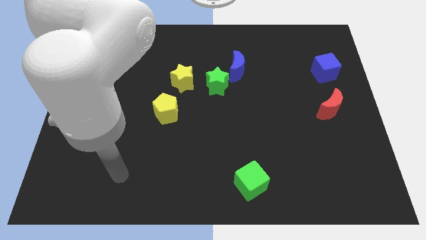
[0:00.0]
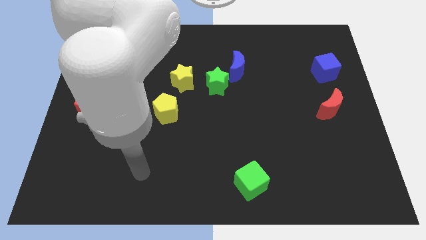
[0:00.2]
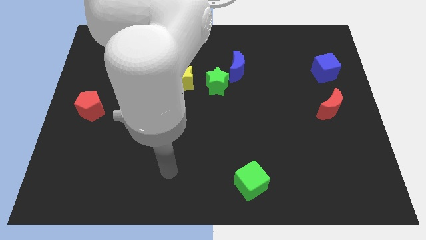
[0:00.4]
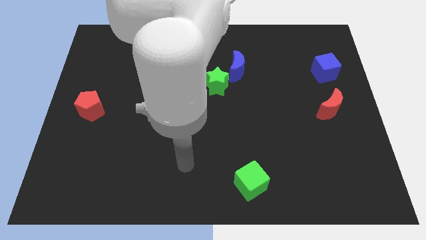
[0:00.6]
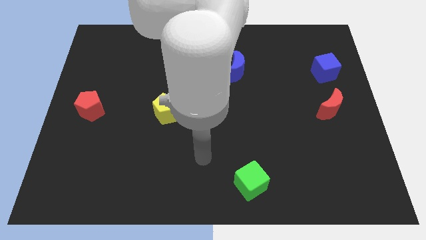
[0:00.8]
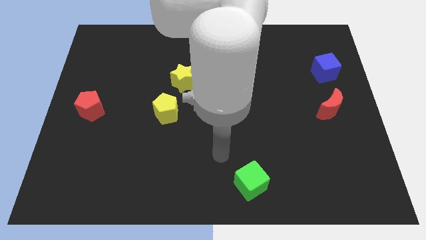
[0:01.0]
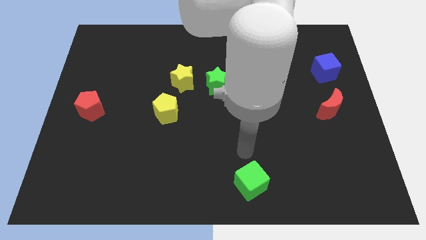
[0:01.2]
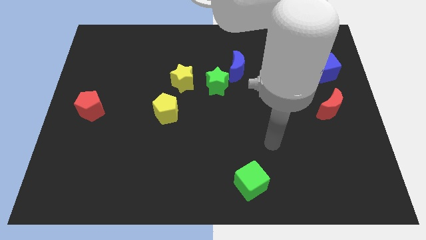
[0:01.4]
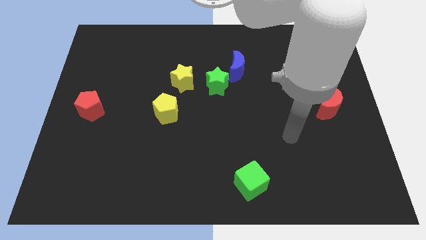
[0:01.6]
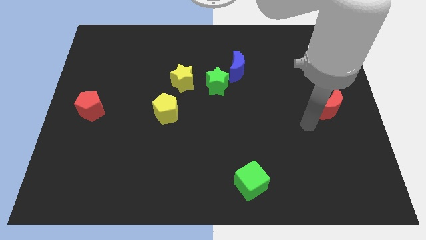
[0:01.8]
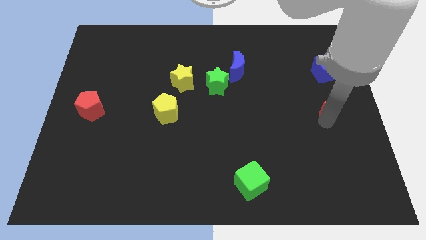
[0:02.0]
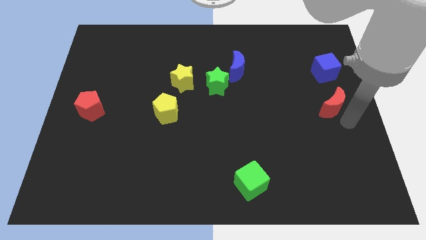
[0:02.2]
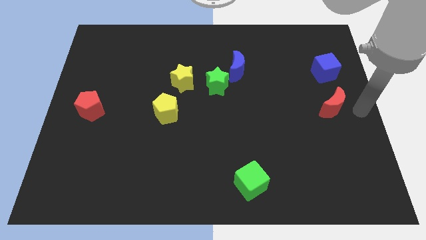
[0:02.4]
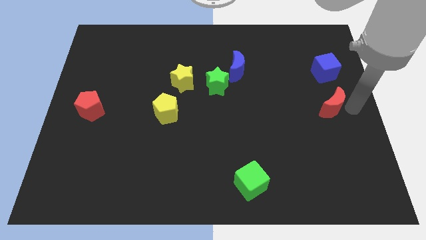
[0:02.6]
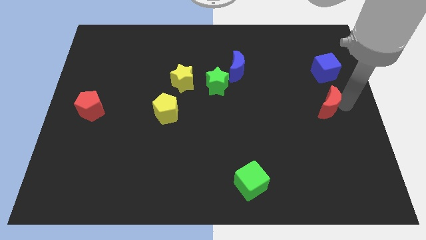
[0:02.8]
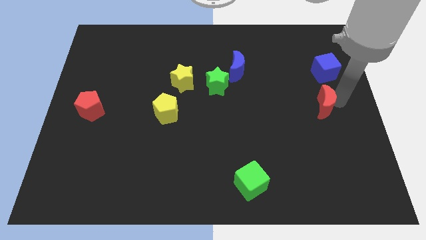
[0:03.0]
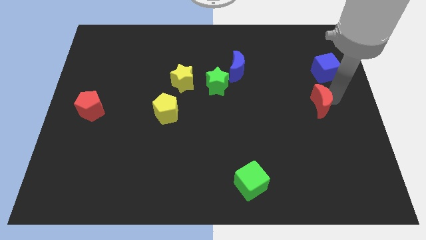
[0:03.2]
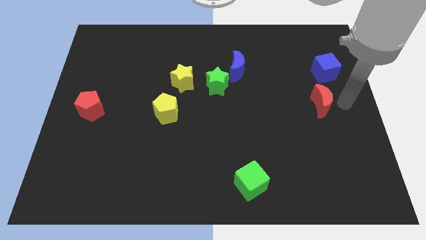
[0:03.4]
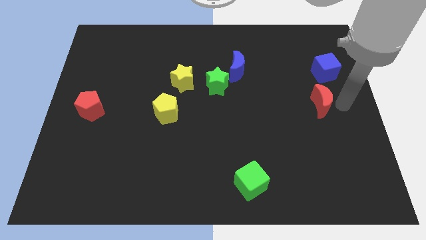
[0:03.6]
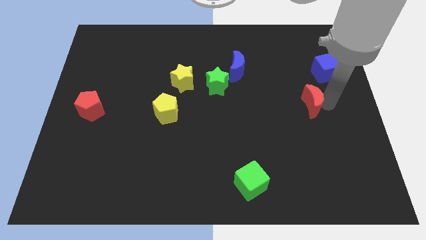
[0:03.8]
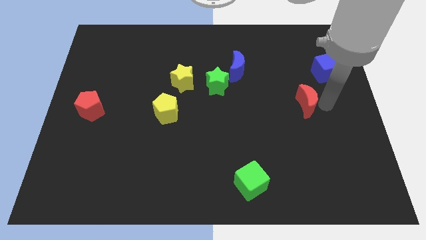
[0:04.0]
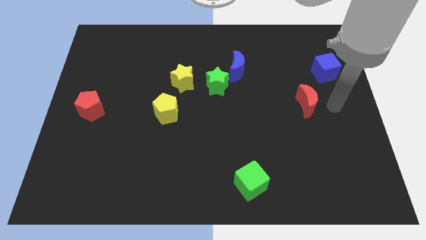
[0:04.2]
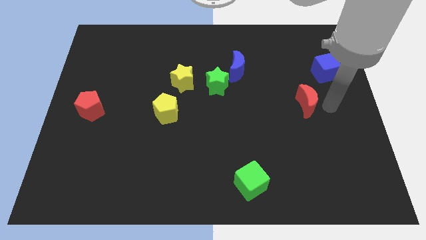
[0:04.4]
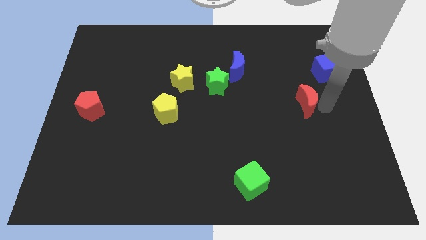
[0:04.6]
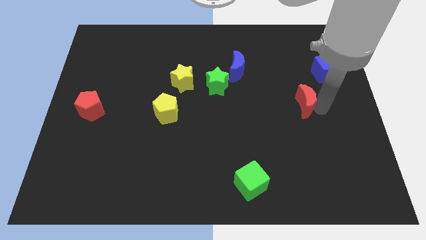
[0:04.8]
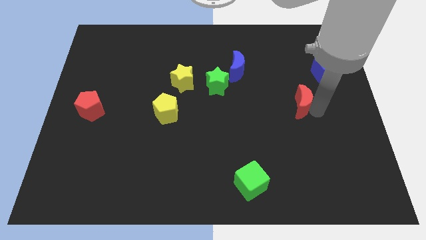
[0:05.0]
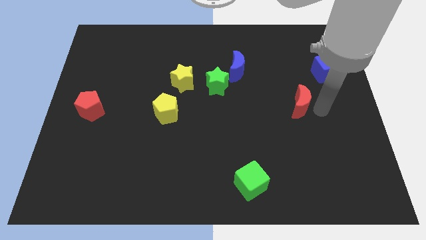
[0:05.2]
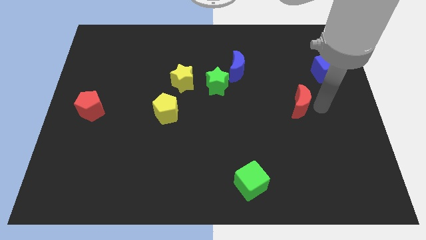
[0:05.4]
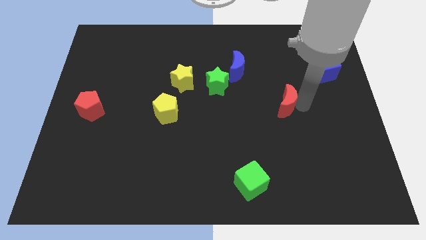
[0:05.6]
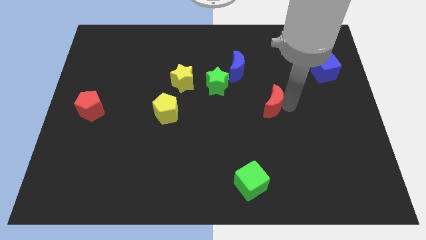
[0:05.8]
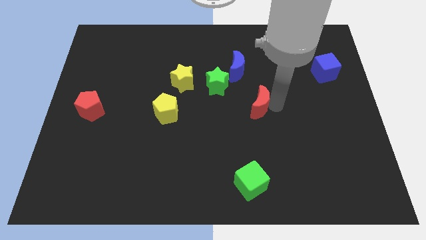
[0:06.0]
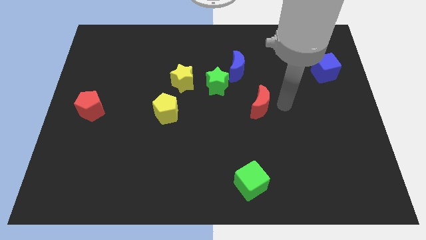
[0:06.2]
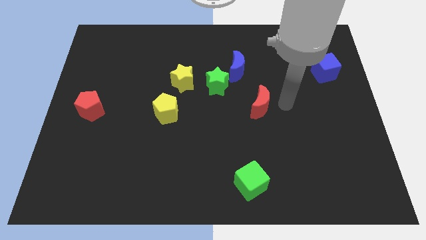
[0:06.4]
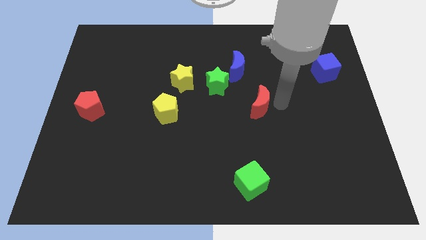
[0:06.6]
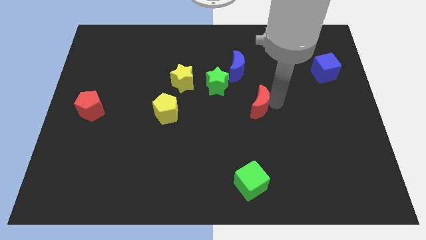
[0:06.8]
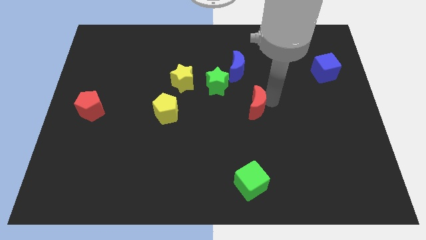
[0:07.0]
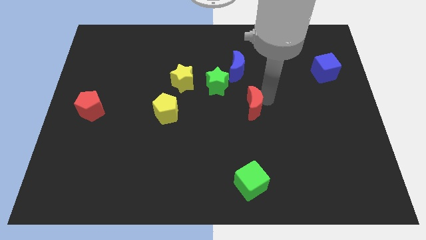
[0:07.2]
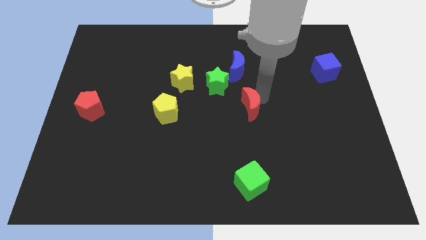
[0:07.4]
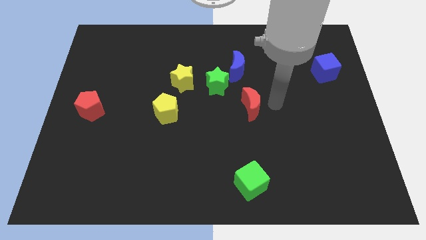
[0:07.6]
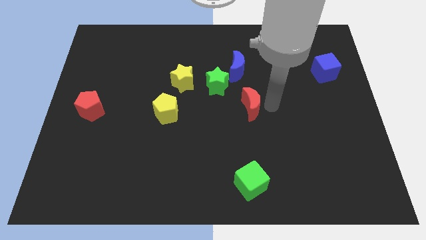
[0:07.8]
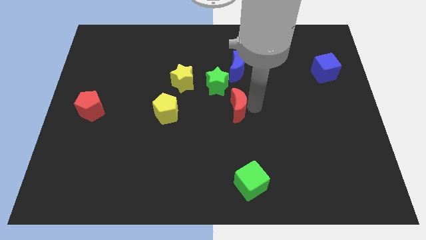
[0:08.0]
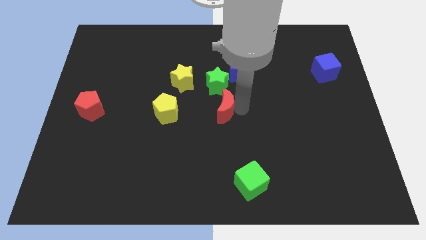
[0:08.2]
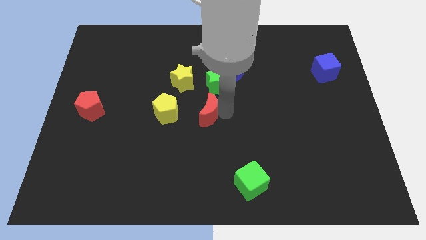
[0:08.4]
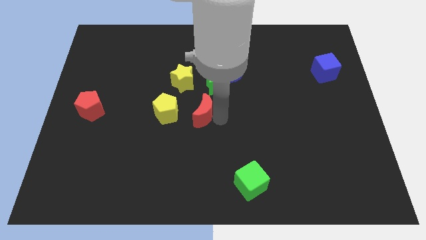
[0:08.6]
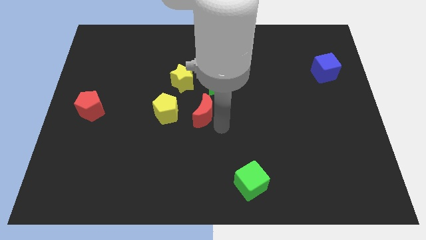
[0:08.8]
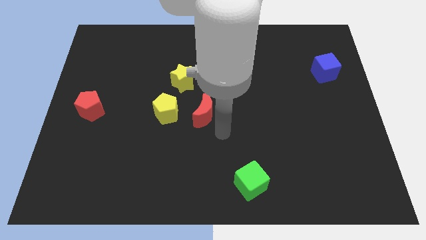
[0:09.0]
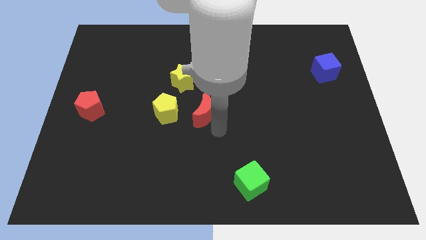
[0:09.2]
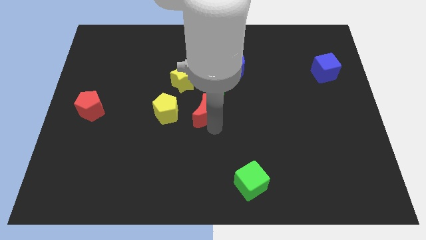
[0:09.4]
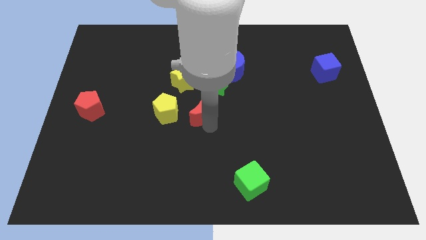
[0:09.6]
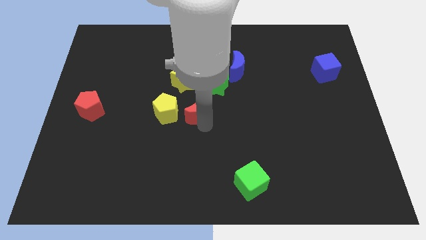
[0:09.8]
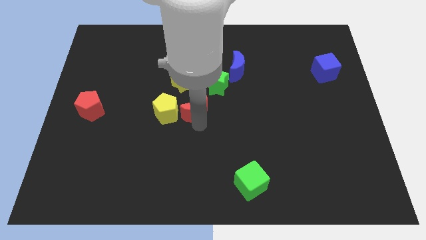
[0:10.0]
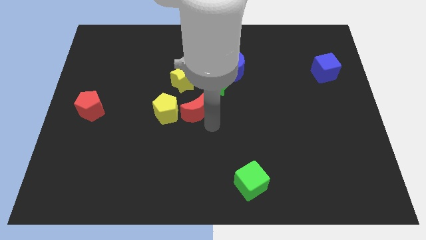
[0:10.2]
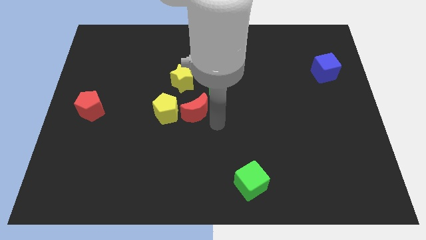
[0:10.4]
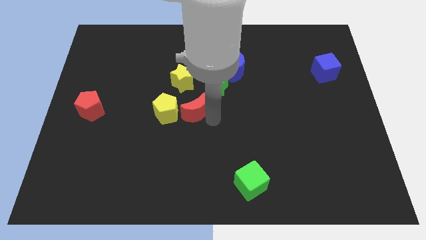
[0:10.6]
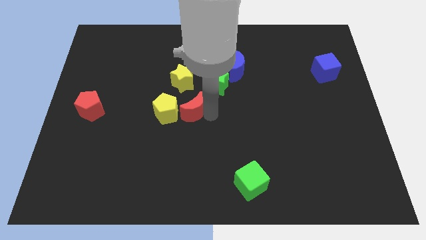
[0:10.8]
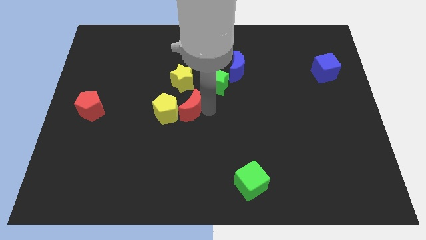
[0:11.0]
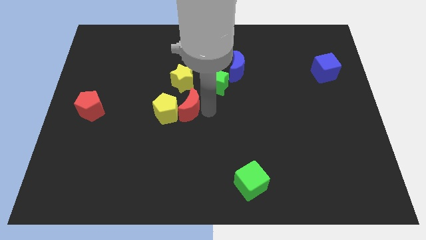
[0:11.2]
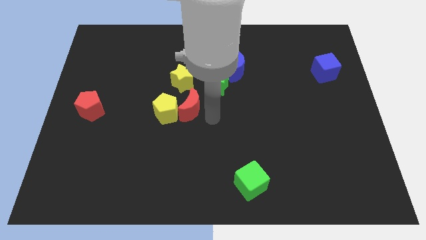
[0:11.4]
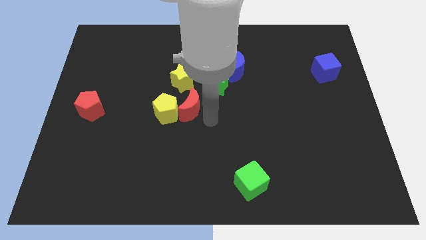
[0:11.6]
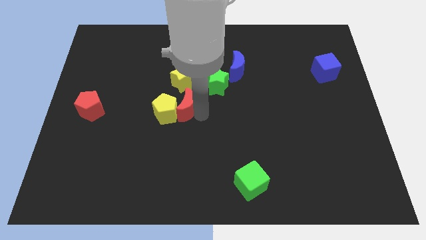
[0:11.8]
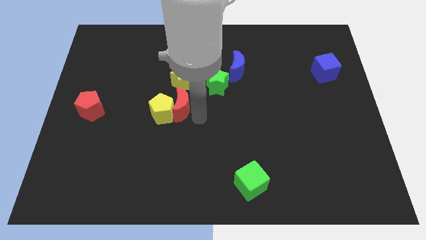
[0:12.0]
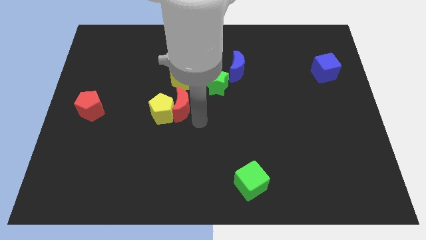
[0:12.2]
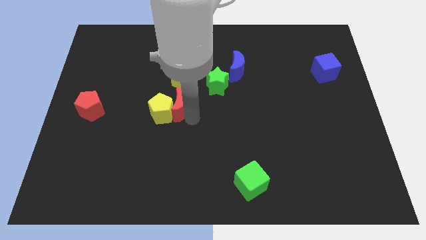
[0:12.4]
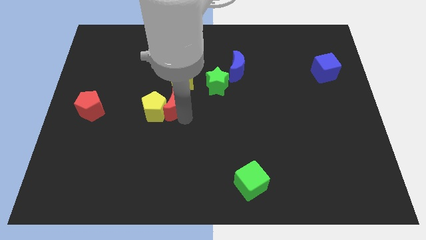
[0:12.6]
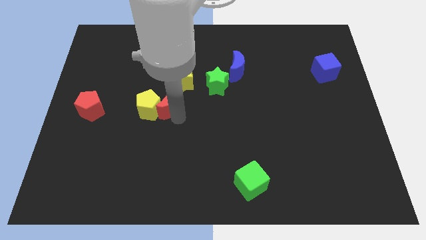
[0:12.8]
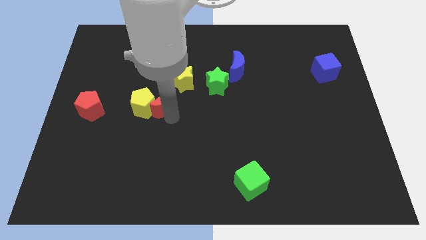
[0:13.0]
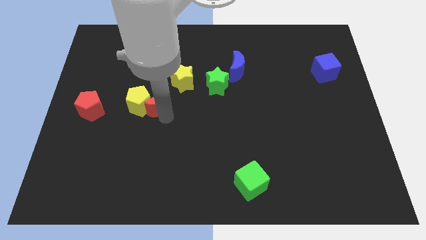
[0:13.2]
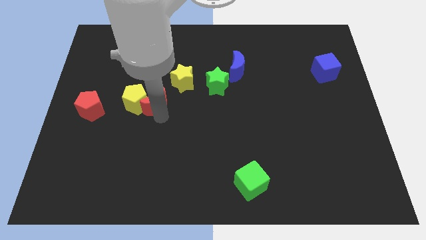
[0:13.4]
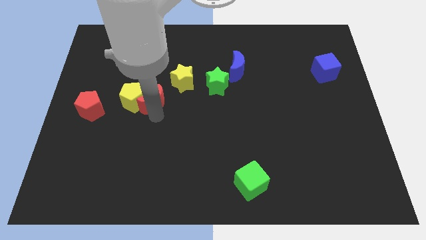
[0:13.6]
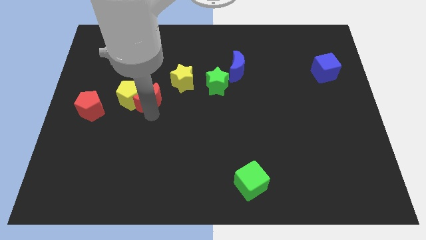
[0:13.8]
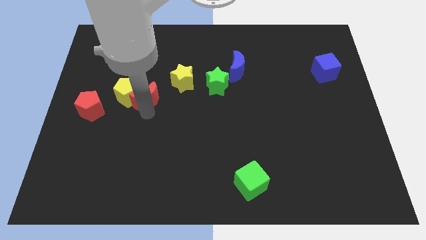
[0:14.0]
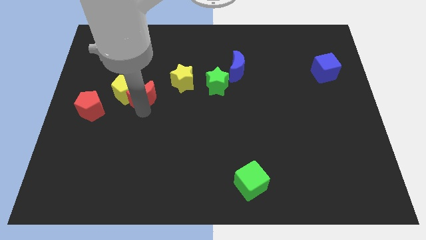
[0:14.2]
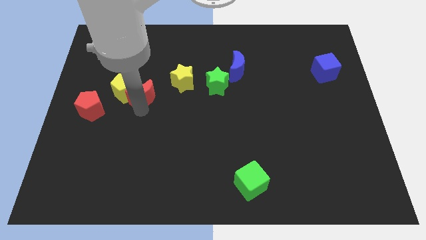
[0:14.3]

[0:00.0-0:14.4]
move the red moon to the left of the yellow star
